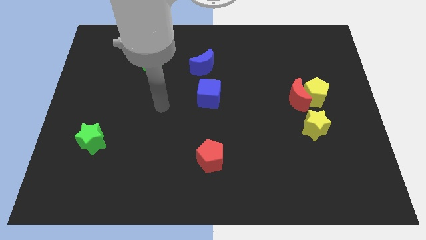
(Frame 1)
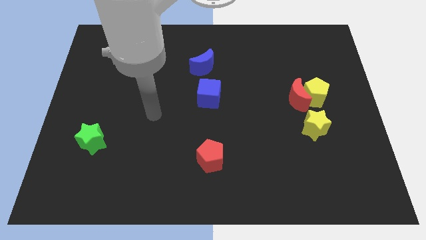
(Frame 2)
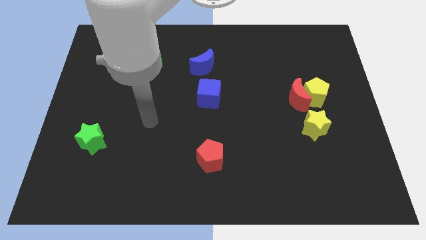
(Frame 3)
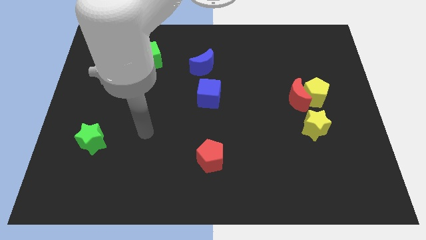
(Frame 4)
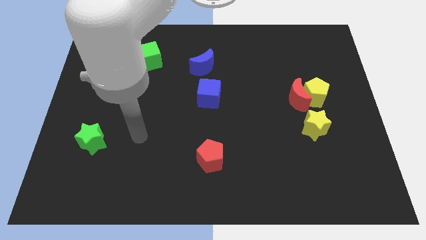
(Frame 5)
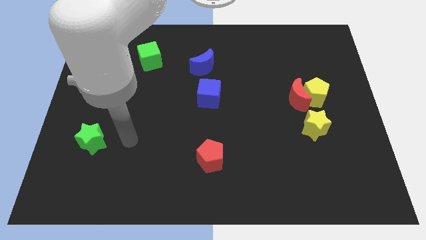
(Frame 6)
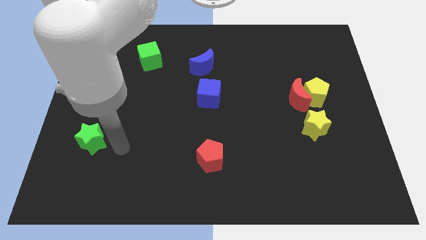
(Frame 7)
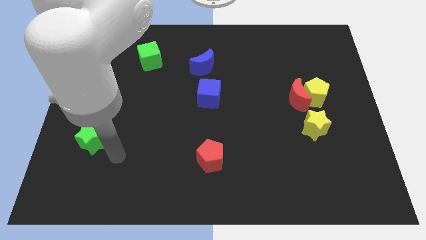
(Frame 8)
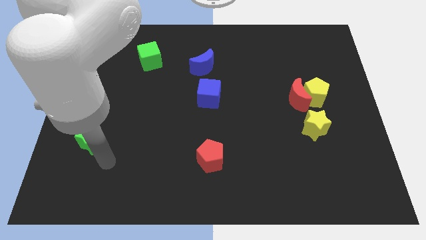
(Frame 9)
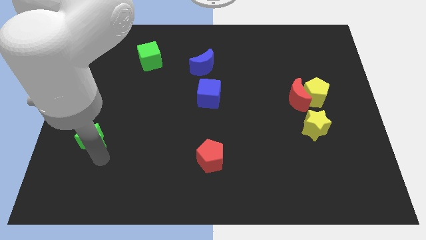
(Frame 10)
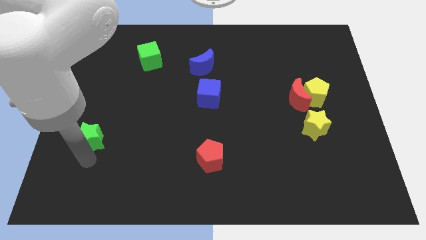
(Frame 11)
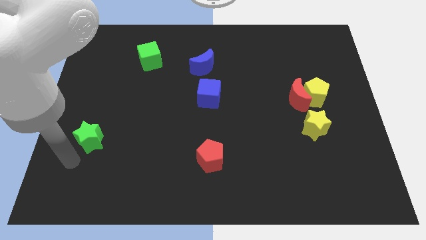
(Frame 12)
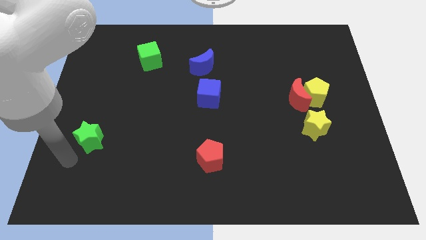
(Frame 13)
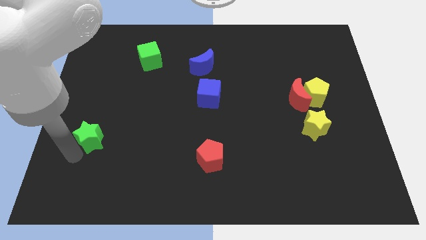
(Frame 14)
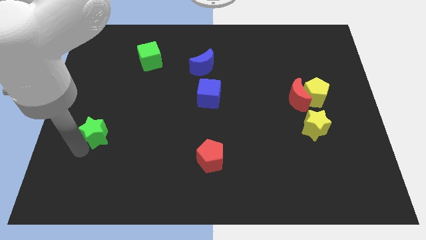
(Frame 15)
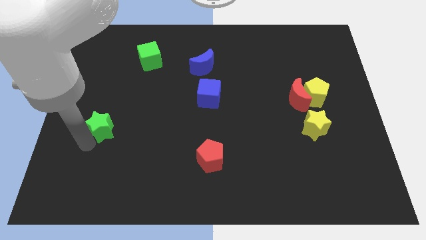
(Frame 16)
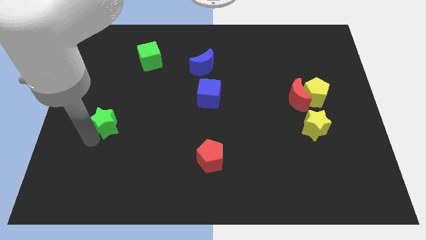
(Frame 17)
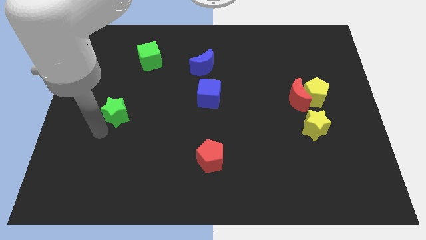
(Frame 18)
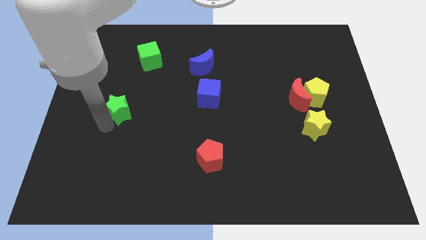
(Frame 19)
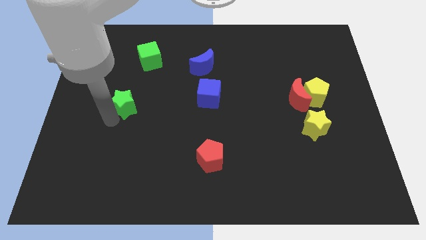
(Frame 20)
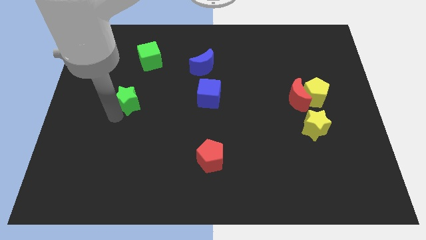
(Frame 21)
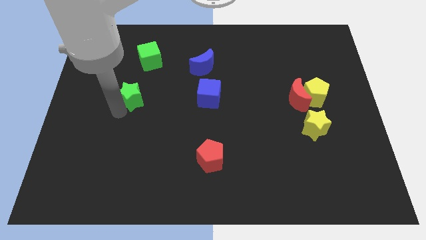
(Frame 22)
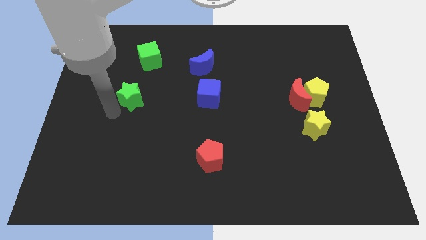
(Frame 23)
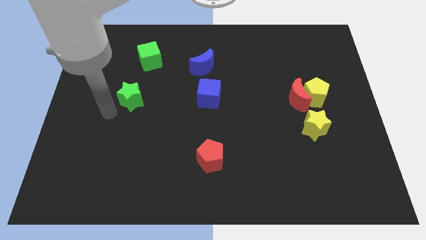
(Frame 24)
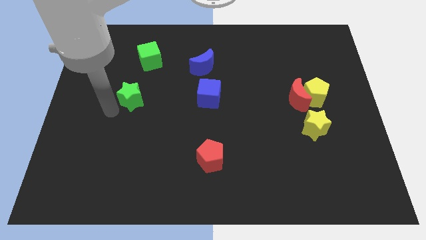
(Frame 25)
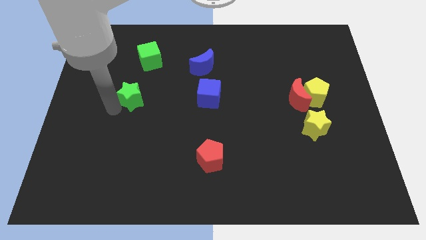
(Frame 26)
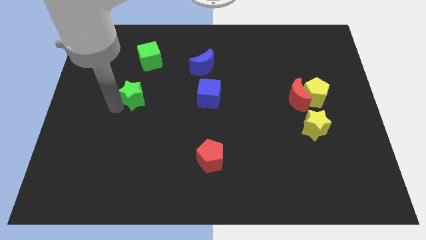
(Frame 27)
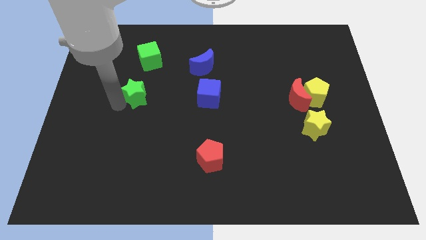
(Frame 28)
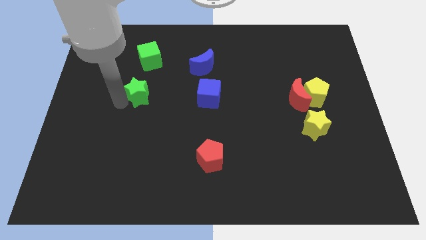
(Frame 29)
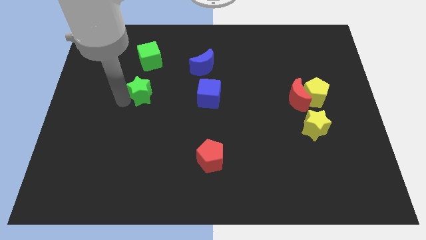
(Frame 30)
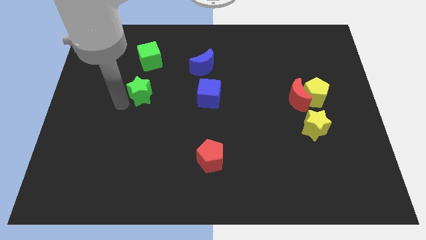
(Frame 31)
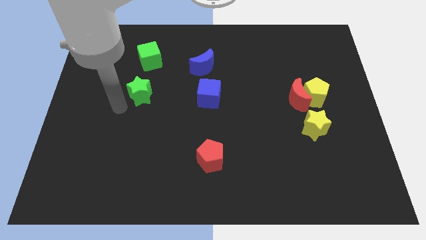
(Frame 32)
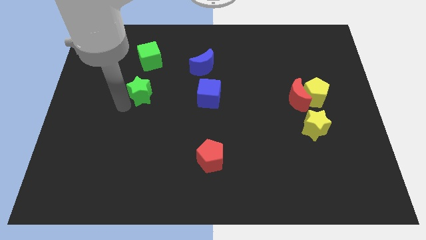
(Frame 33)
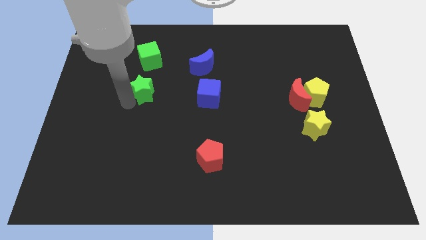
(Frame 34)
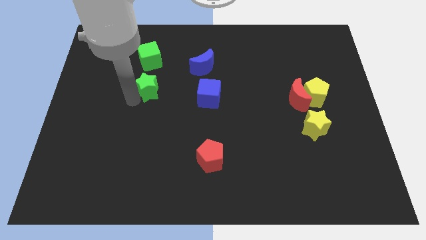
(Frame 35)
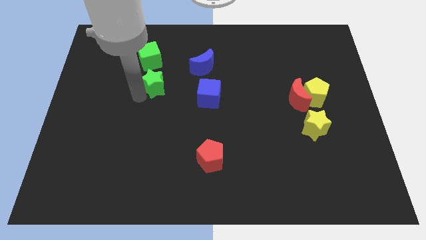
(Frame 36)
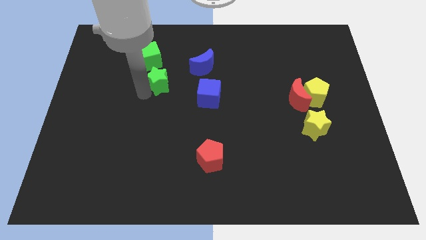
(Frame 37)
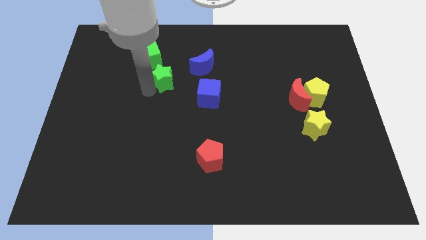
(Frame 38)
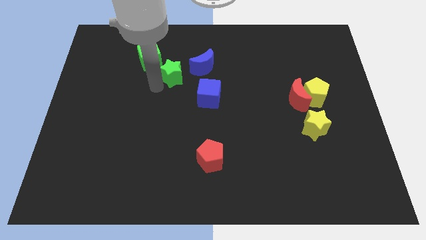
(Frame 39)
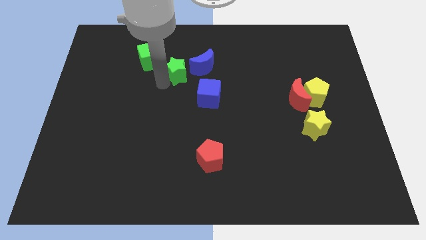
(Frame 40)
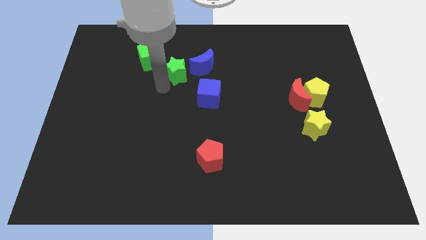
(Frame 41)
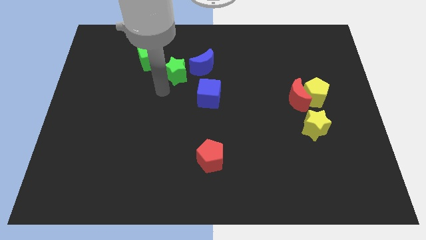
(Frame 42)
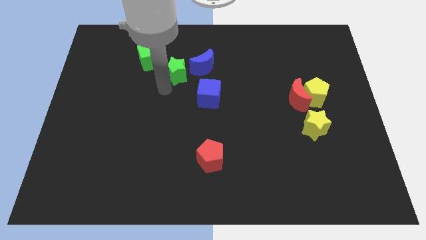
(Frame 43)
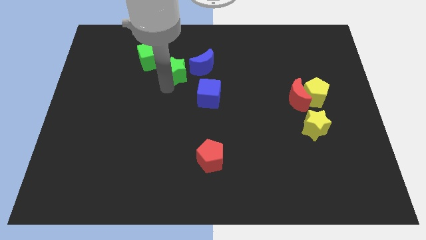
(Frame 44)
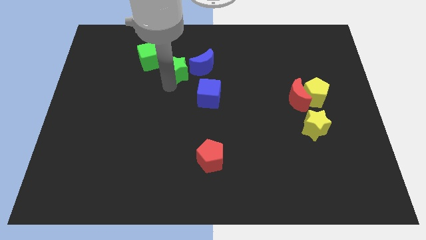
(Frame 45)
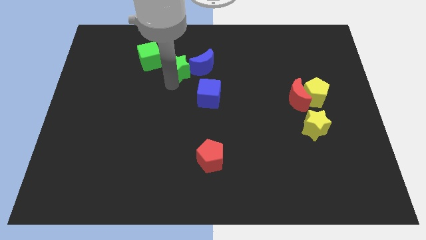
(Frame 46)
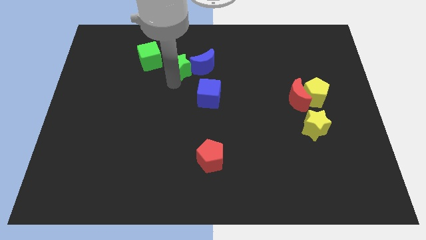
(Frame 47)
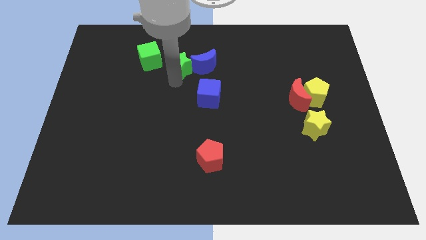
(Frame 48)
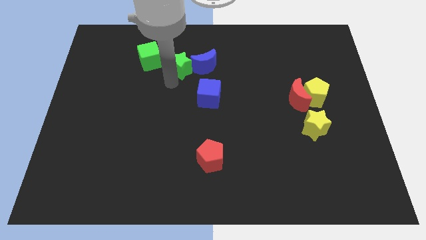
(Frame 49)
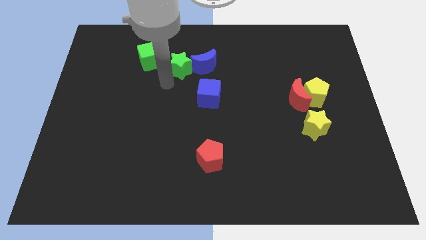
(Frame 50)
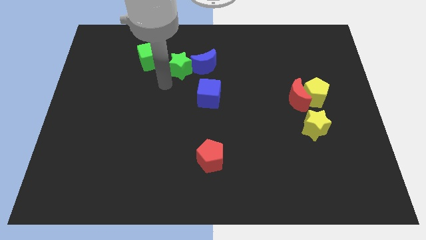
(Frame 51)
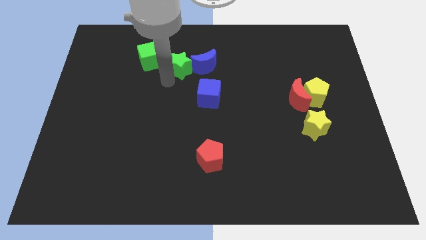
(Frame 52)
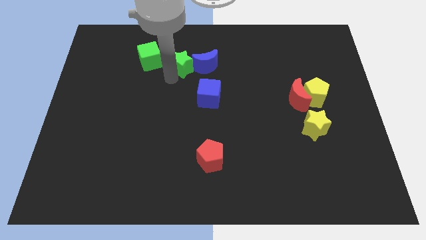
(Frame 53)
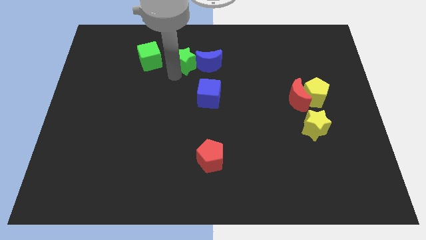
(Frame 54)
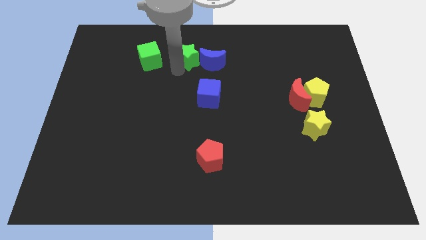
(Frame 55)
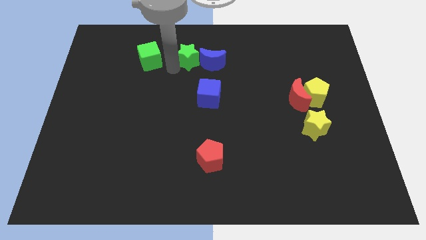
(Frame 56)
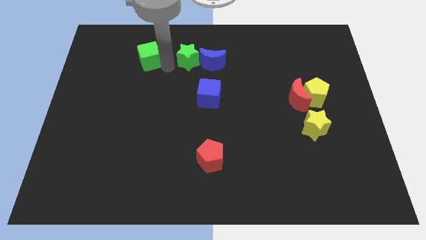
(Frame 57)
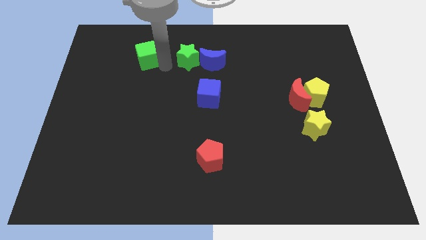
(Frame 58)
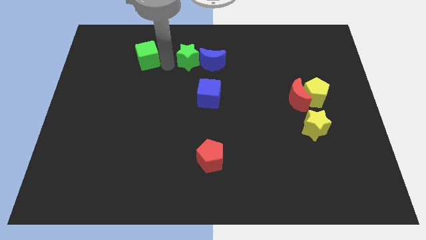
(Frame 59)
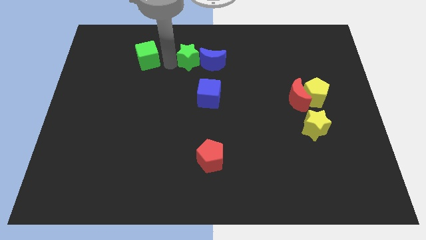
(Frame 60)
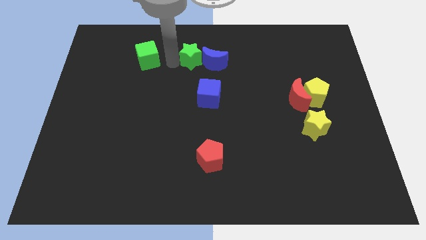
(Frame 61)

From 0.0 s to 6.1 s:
push the green star to the top of the blue cube

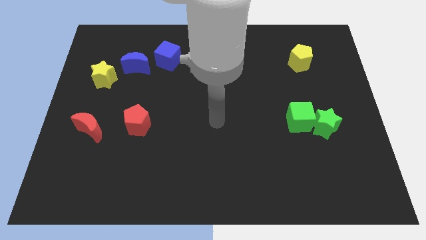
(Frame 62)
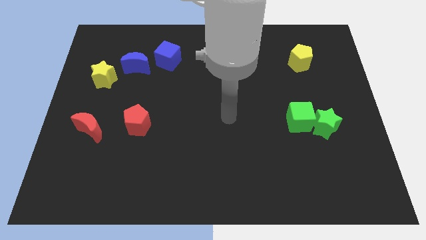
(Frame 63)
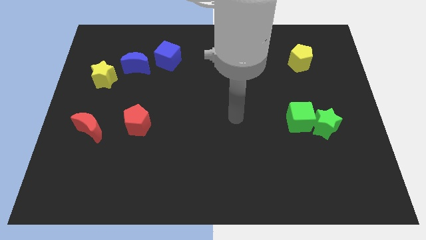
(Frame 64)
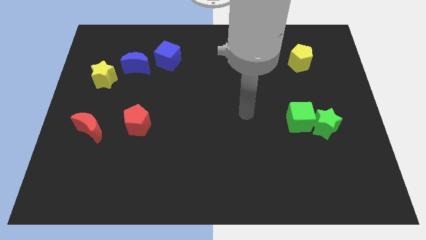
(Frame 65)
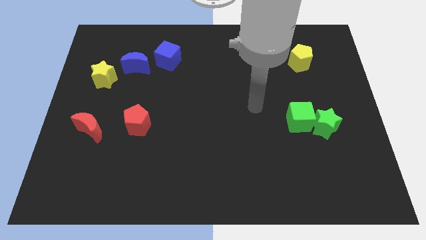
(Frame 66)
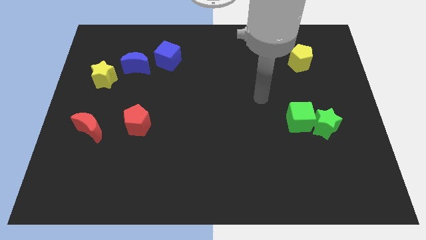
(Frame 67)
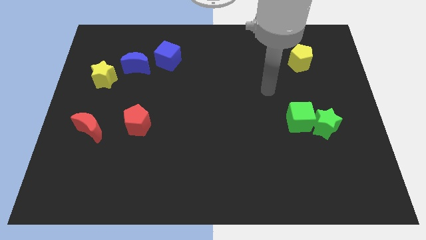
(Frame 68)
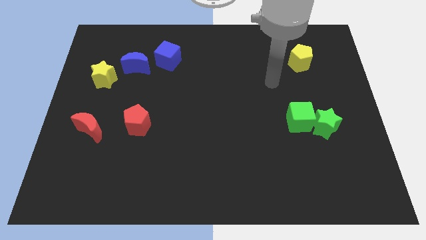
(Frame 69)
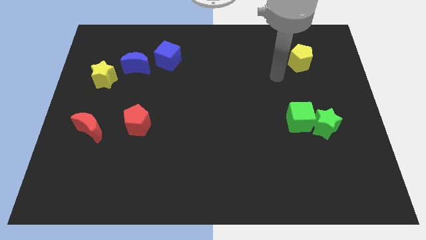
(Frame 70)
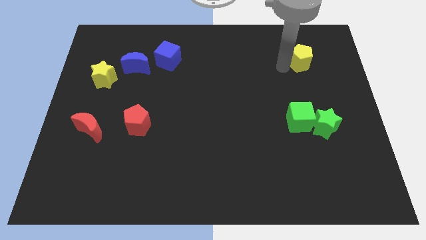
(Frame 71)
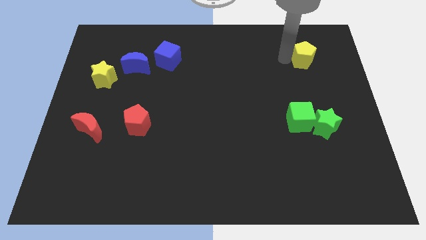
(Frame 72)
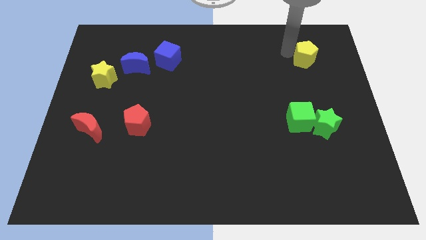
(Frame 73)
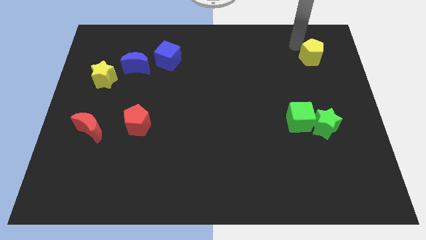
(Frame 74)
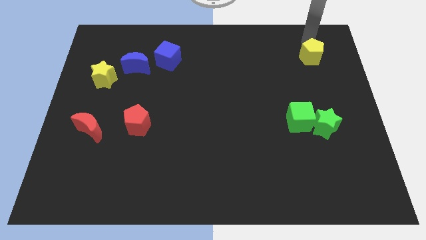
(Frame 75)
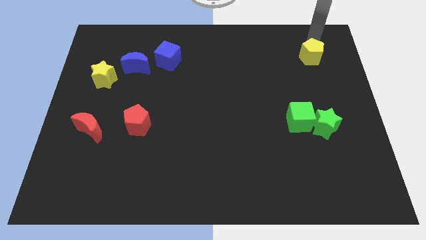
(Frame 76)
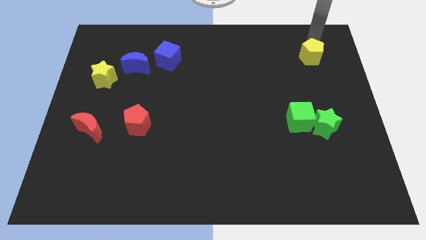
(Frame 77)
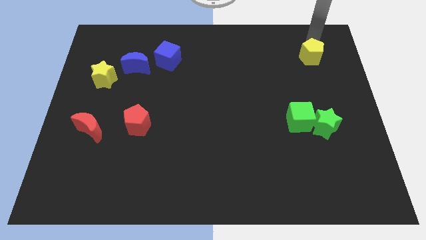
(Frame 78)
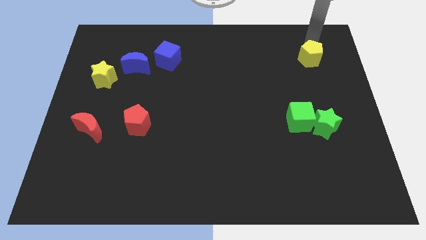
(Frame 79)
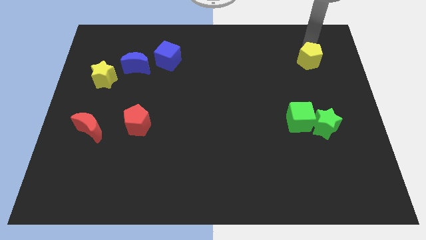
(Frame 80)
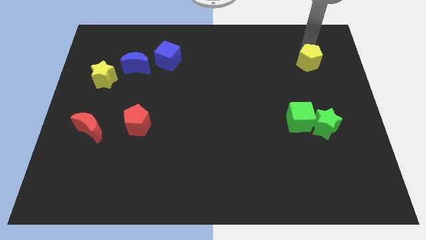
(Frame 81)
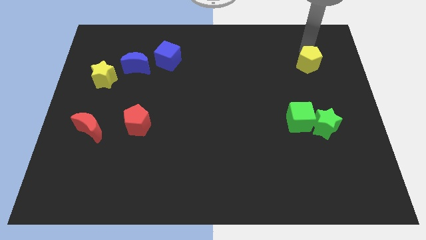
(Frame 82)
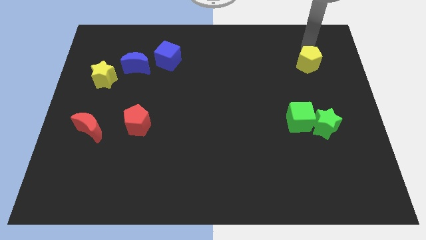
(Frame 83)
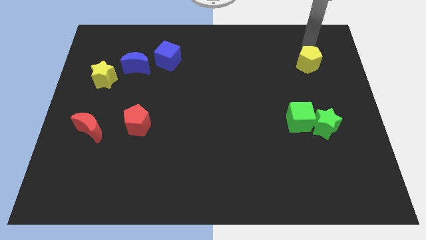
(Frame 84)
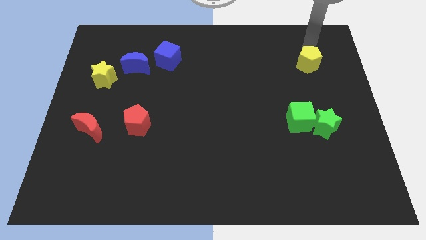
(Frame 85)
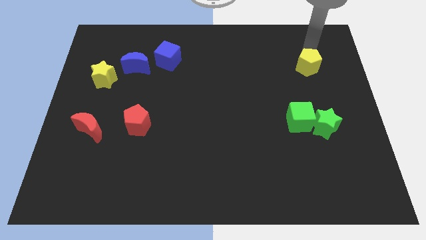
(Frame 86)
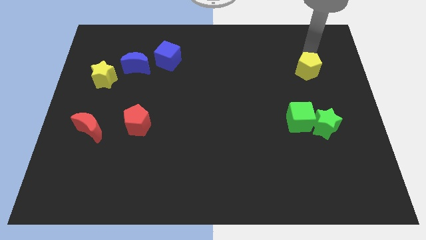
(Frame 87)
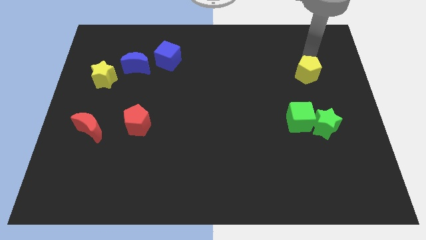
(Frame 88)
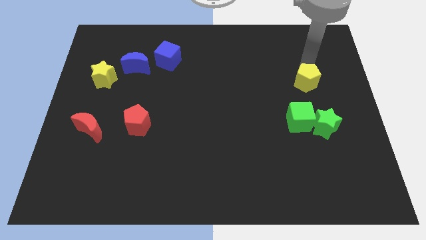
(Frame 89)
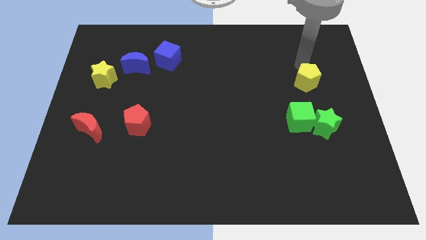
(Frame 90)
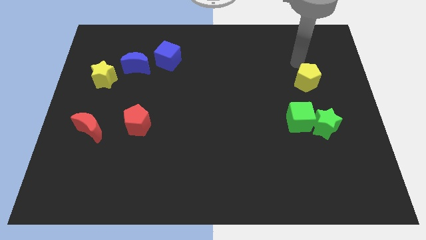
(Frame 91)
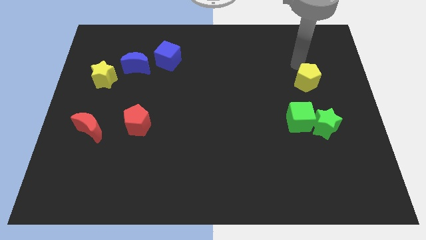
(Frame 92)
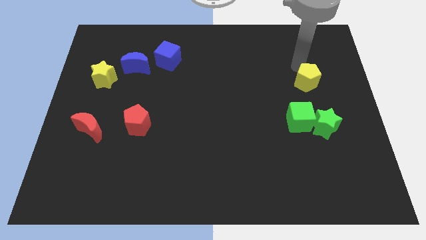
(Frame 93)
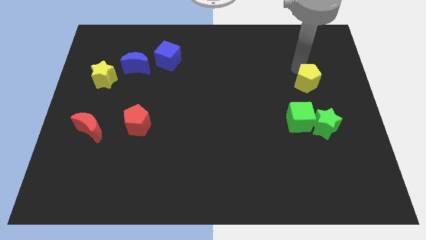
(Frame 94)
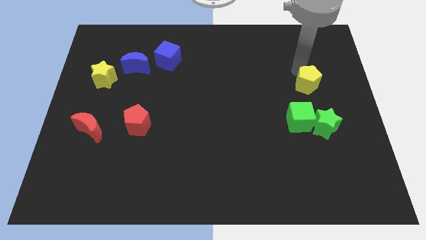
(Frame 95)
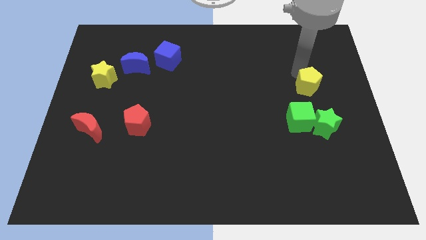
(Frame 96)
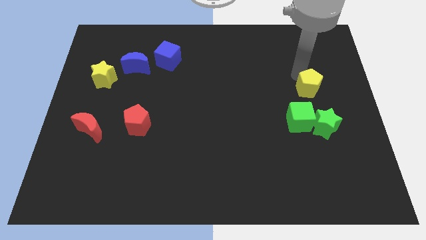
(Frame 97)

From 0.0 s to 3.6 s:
put the yellow pentagon diagonally up and to the right of the green cube
